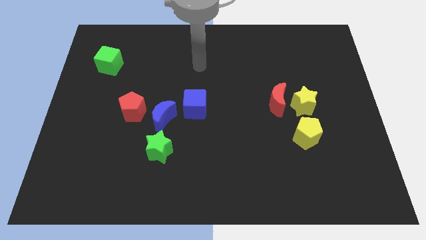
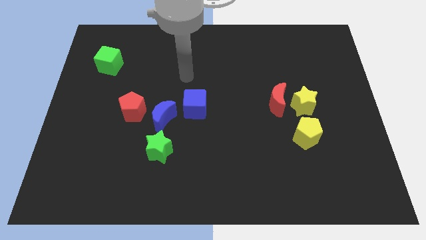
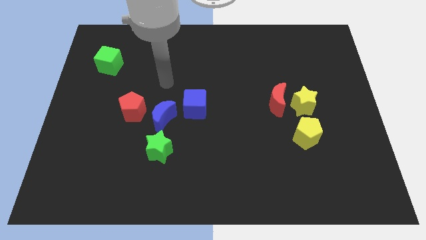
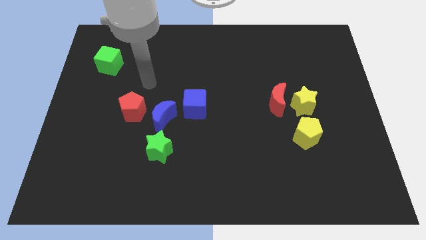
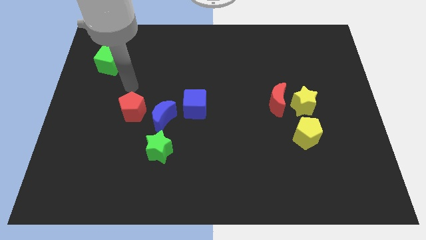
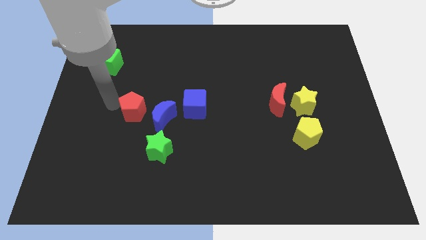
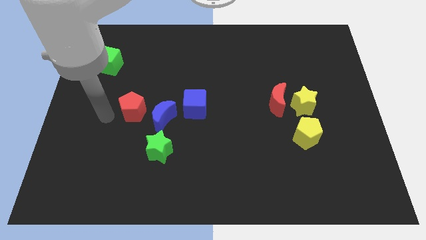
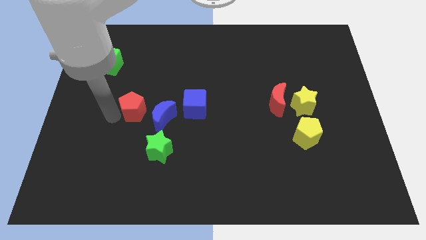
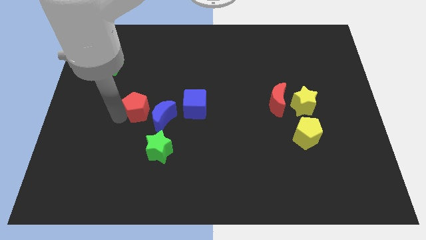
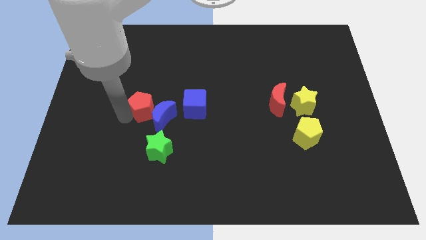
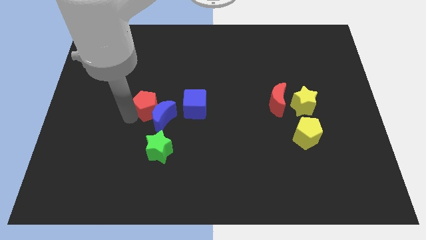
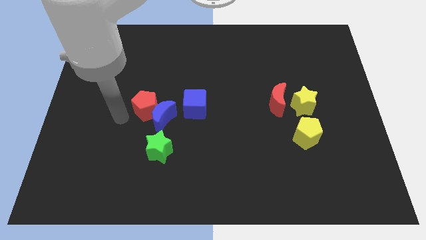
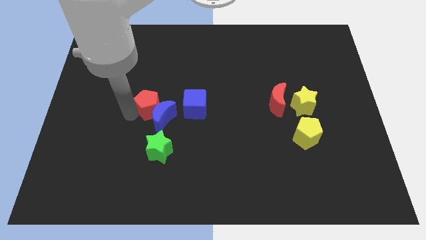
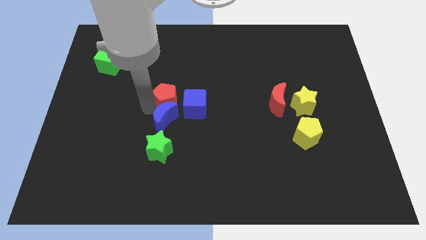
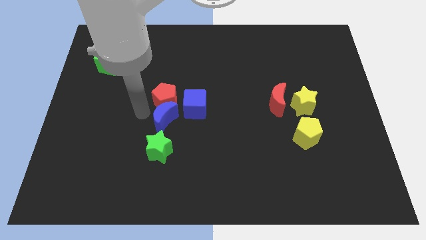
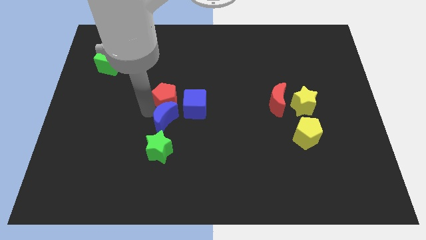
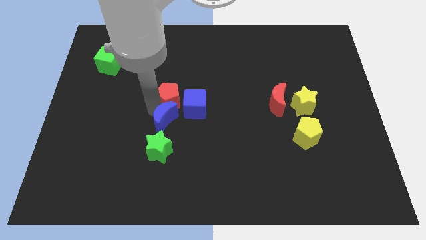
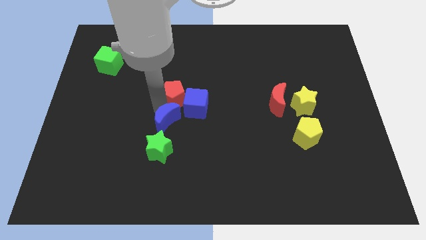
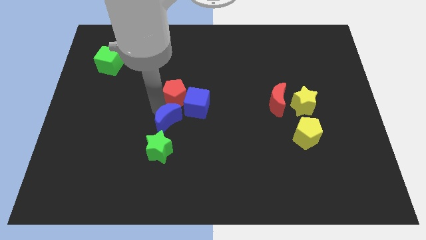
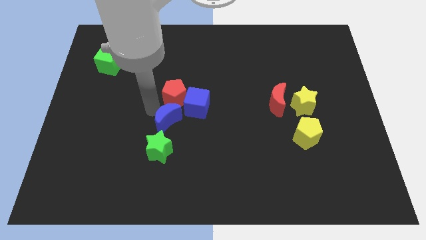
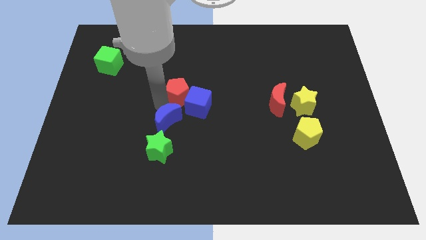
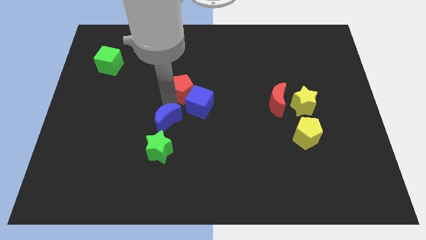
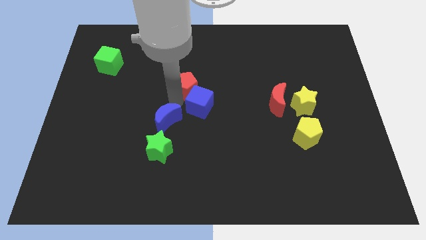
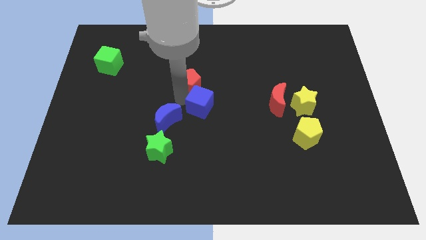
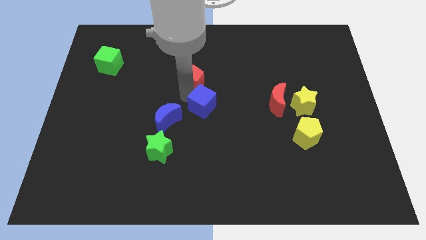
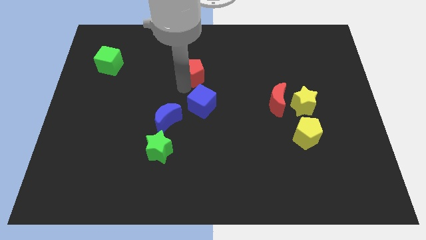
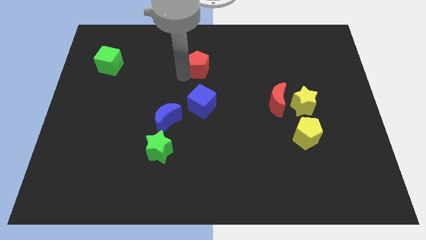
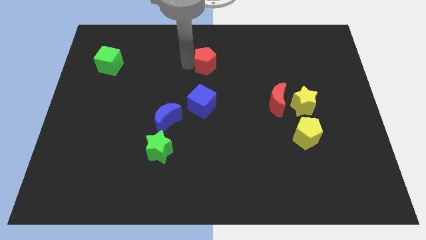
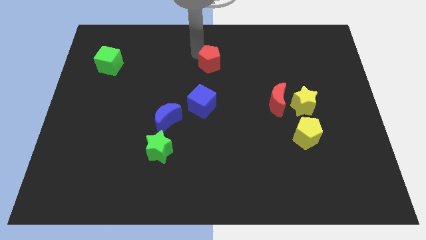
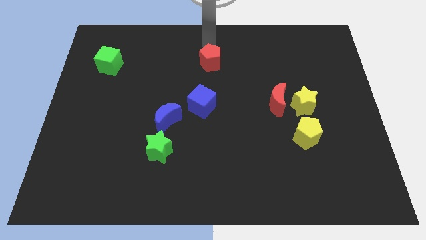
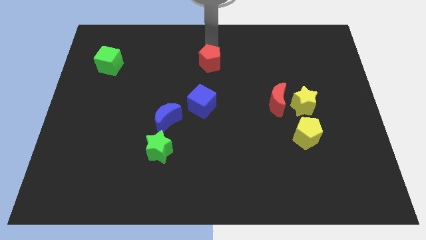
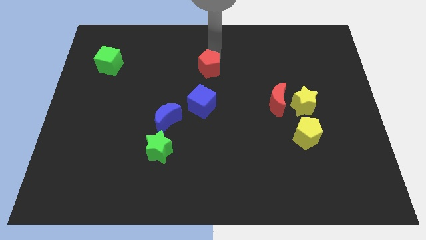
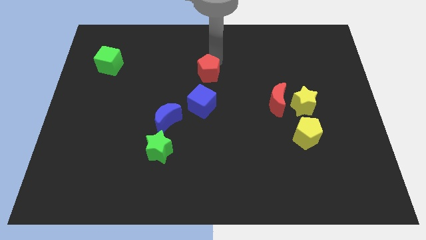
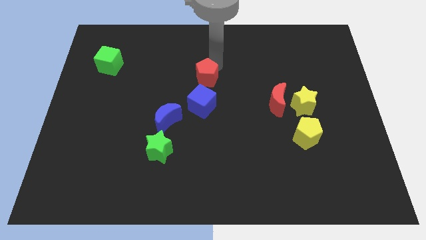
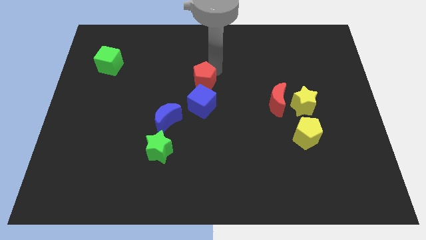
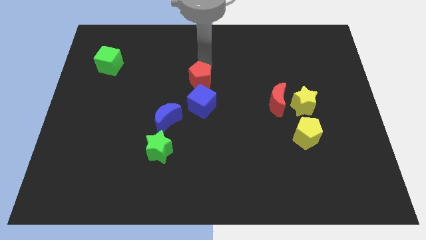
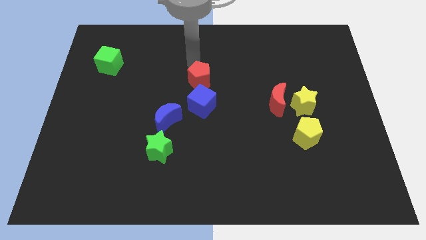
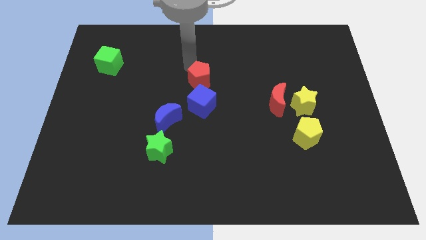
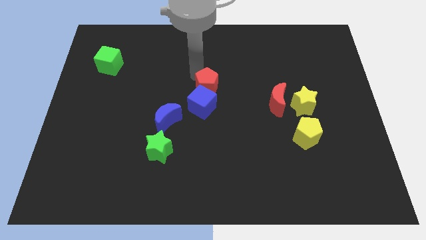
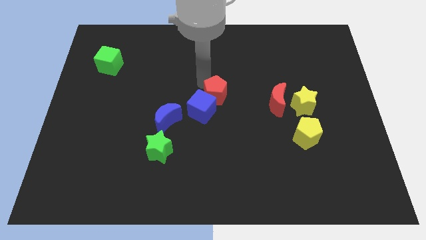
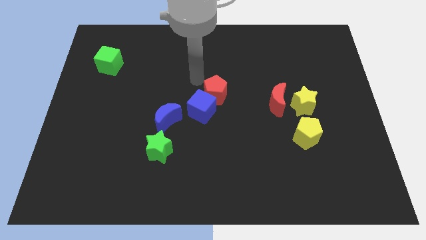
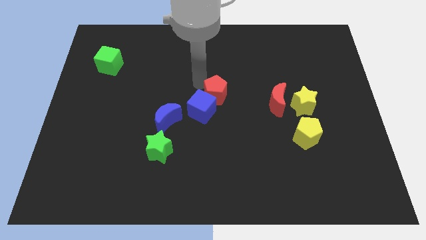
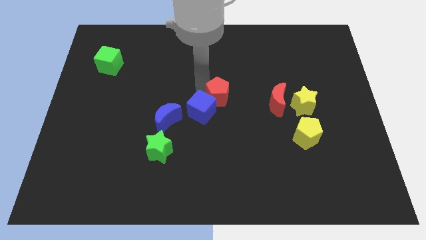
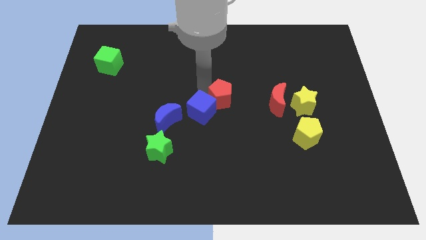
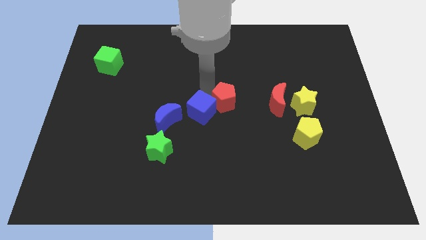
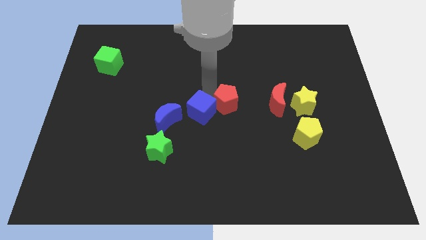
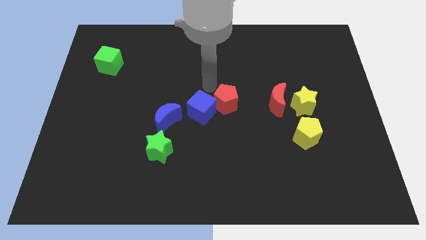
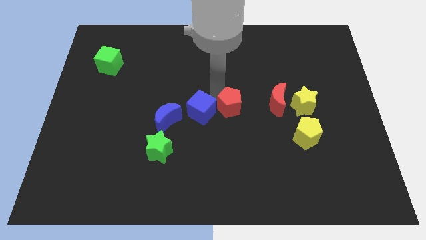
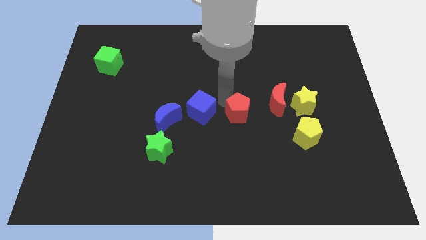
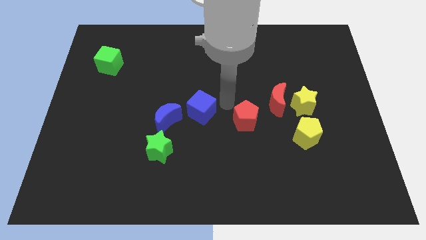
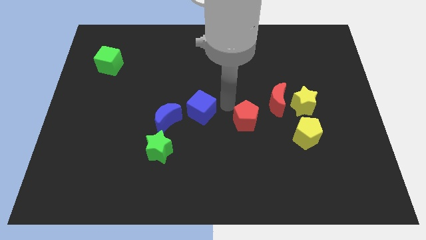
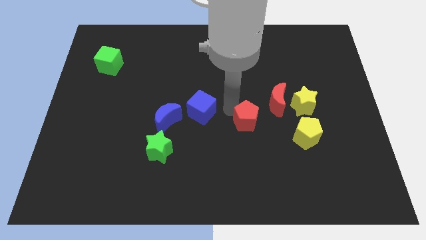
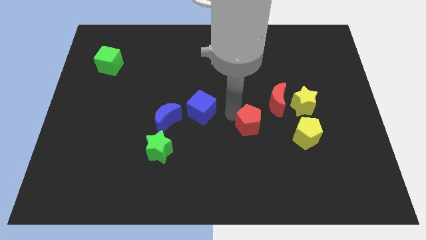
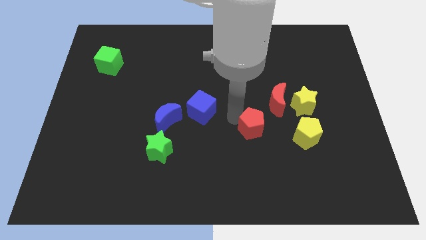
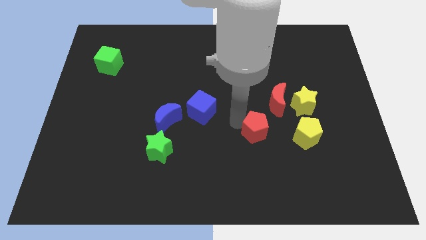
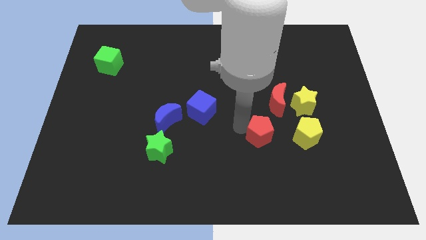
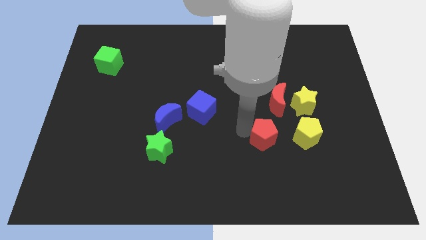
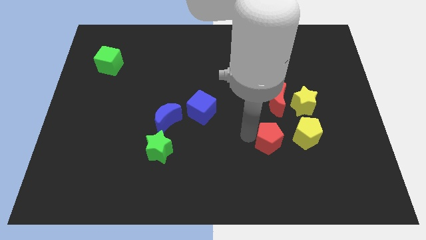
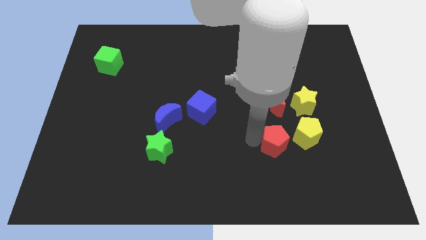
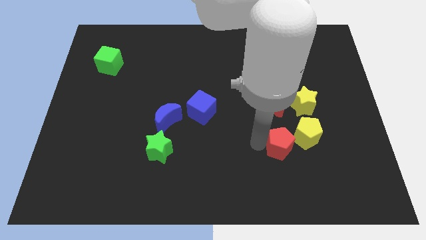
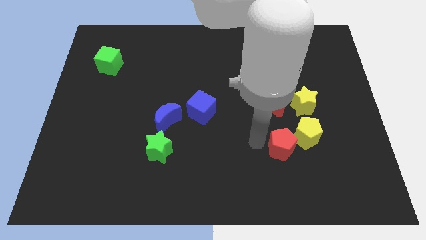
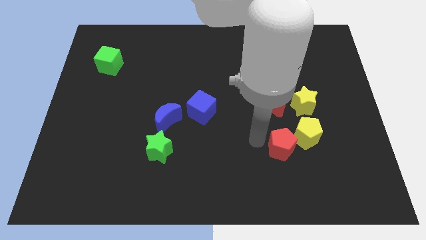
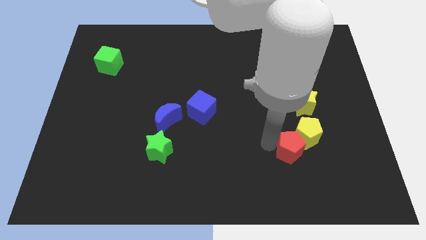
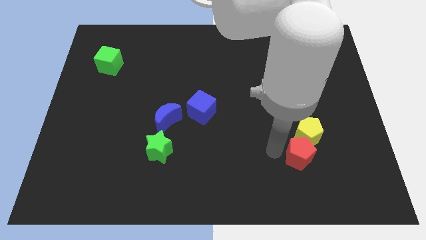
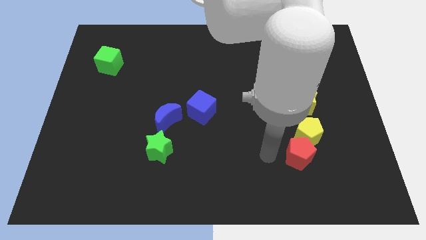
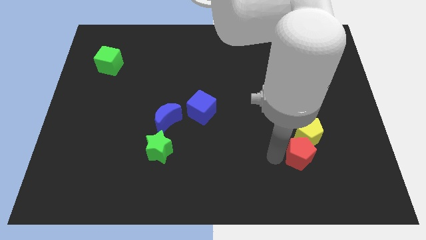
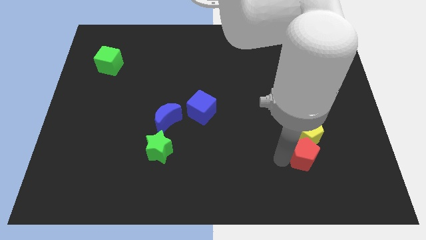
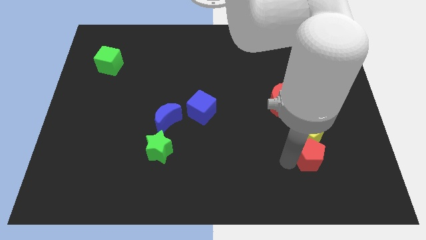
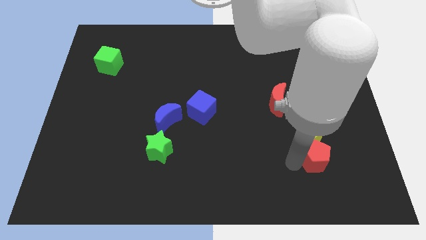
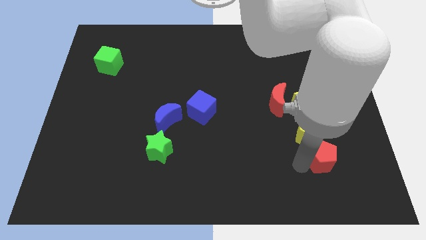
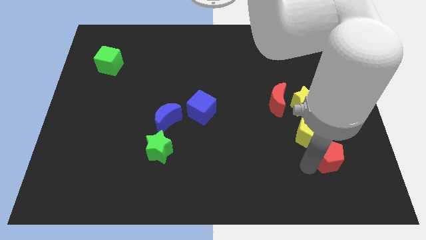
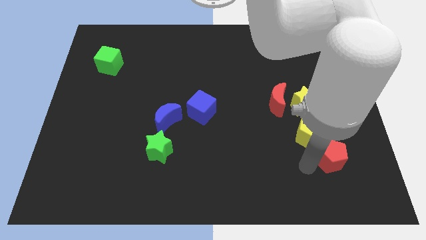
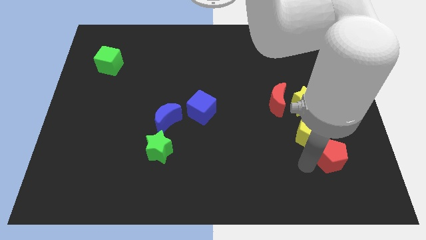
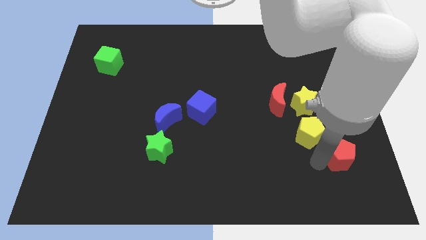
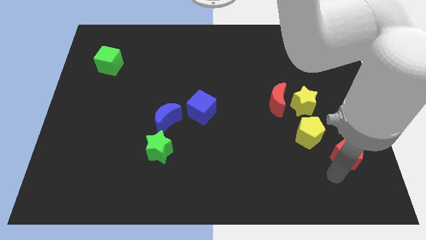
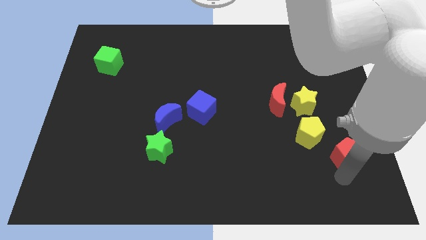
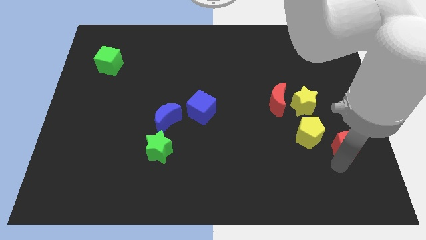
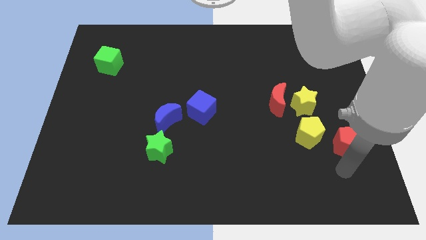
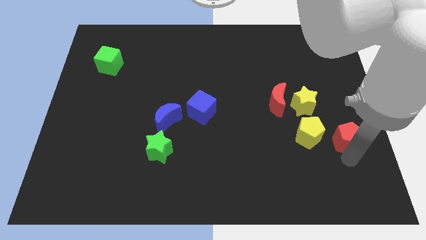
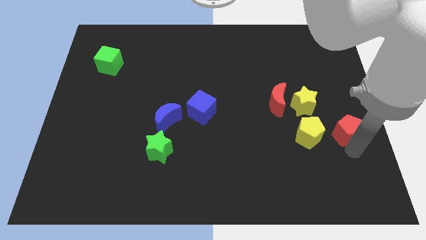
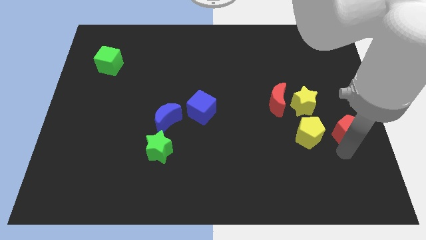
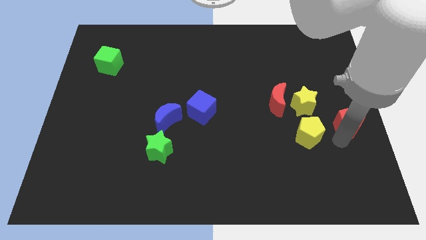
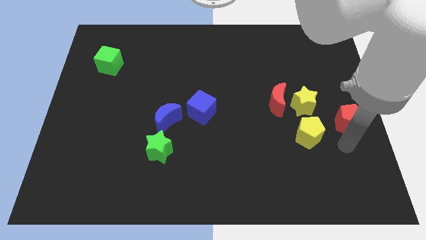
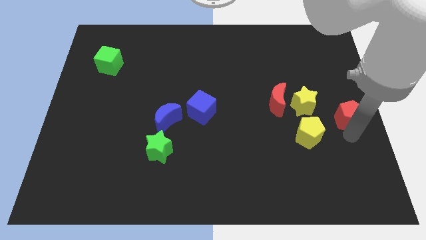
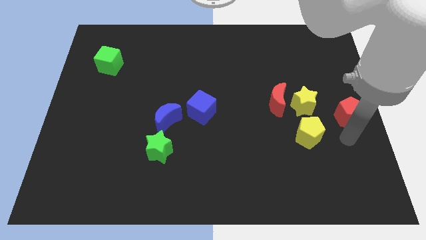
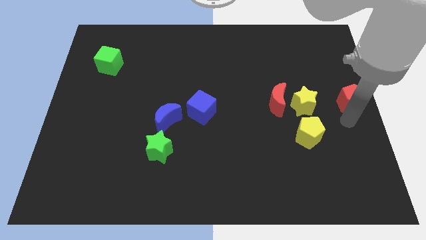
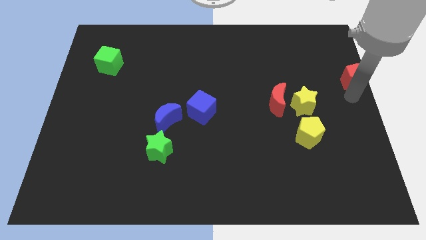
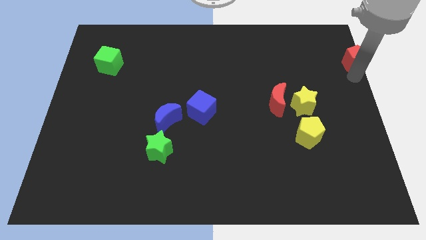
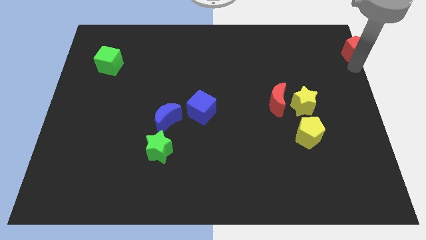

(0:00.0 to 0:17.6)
slide the red pentagon to the upper right corner
